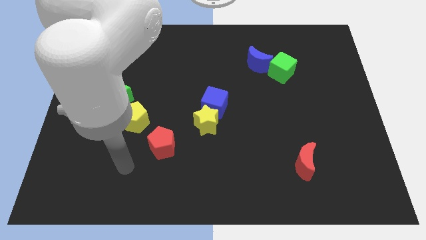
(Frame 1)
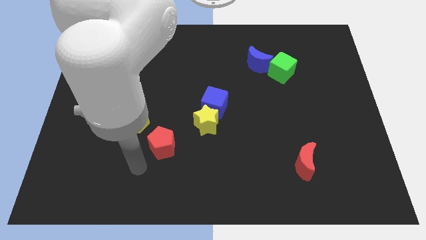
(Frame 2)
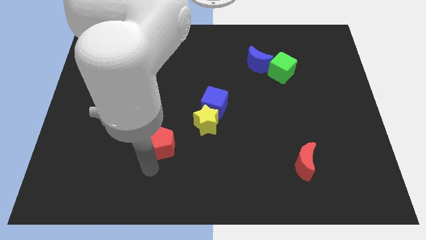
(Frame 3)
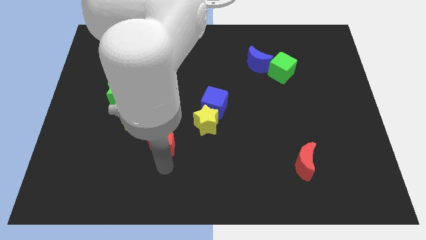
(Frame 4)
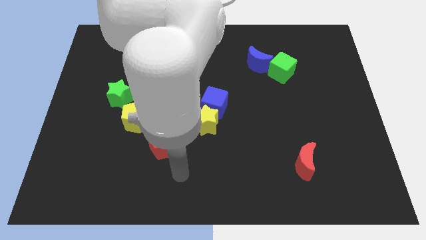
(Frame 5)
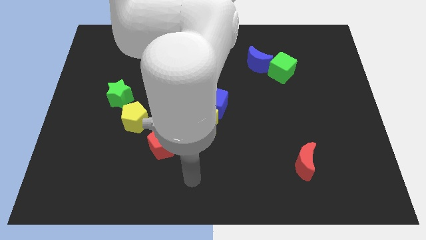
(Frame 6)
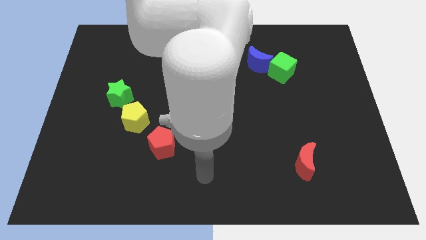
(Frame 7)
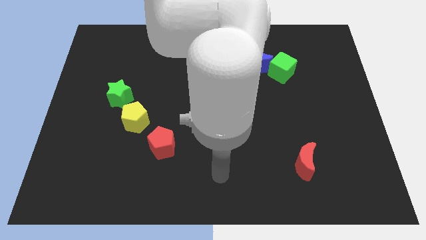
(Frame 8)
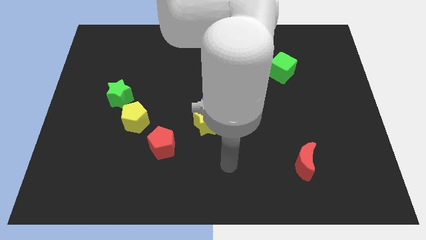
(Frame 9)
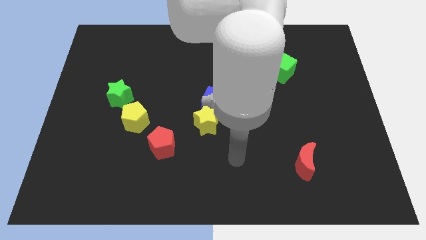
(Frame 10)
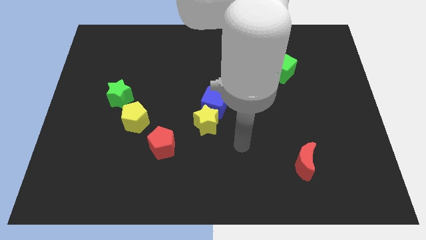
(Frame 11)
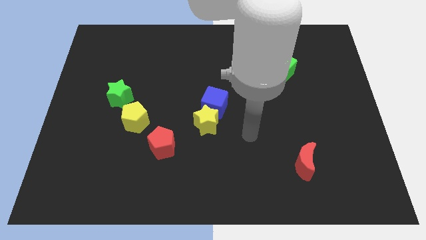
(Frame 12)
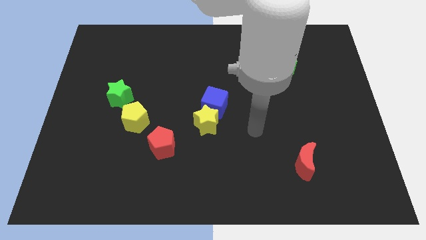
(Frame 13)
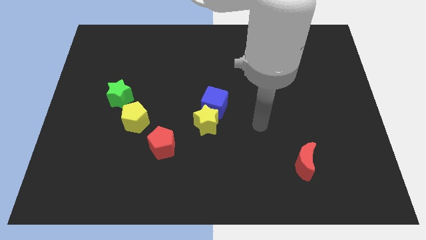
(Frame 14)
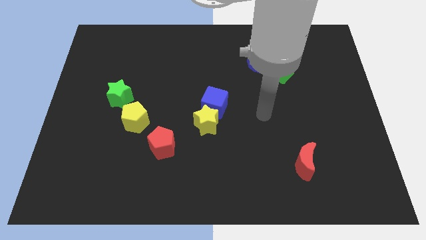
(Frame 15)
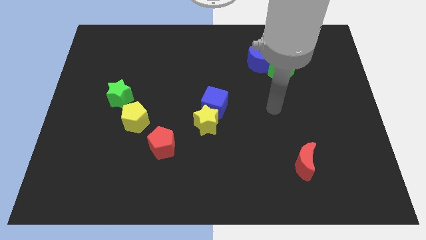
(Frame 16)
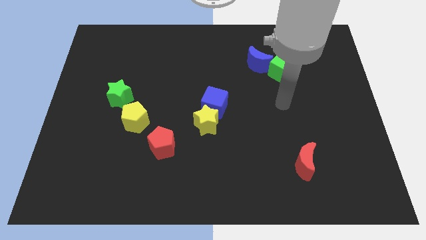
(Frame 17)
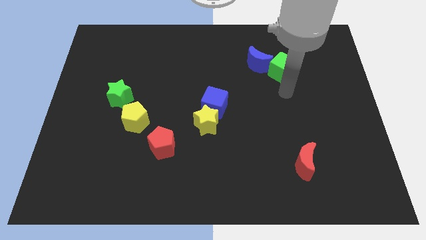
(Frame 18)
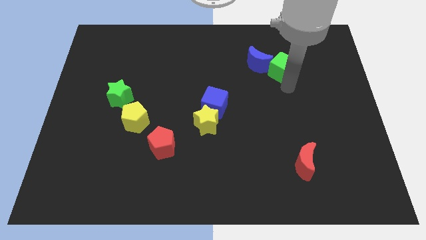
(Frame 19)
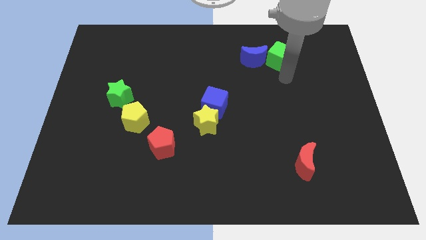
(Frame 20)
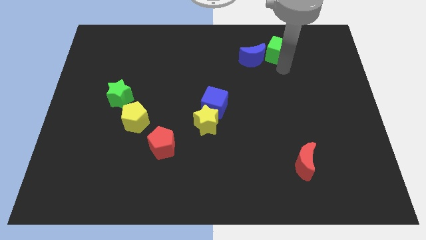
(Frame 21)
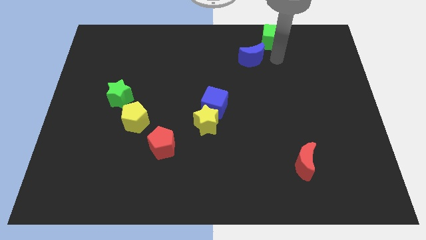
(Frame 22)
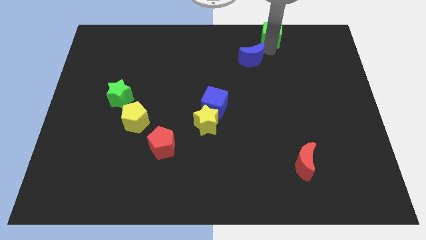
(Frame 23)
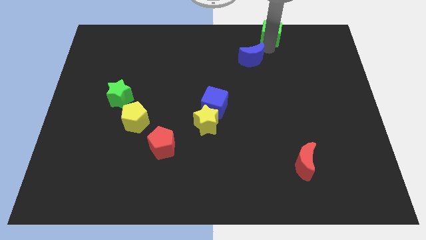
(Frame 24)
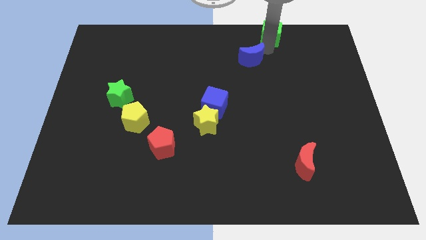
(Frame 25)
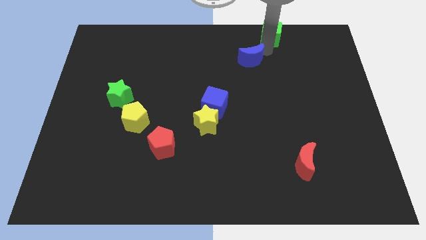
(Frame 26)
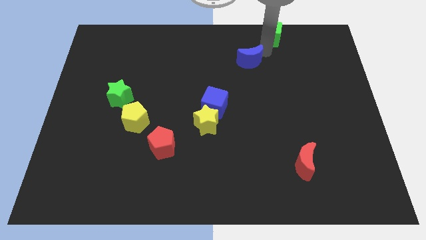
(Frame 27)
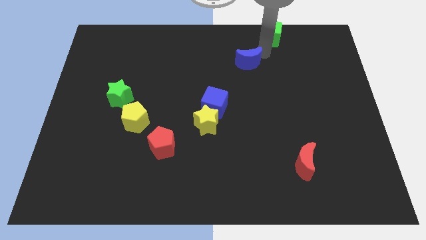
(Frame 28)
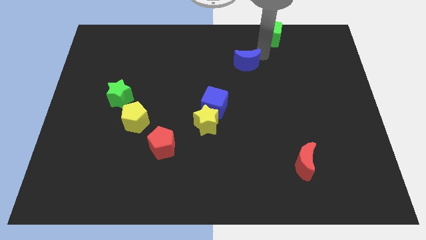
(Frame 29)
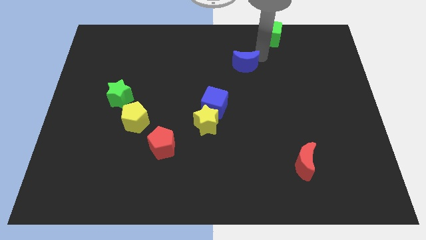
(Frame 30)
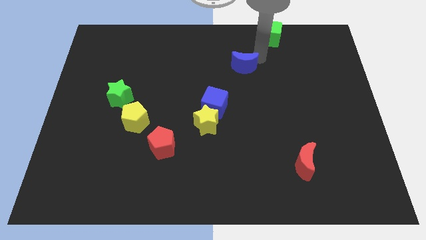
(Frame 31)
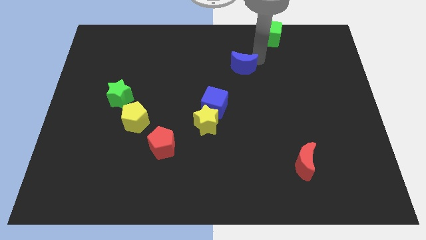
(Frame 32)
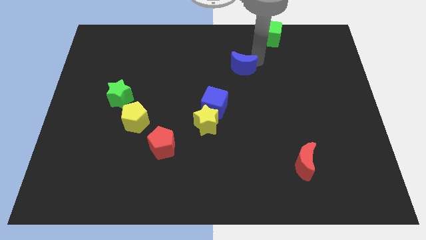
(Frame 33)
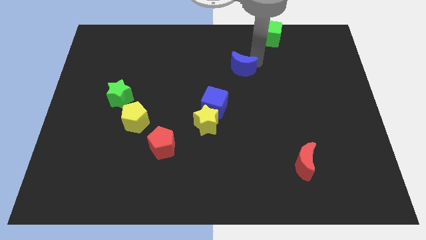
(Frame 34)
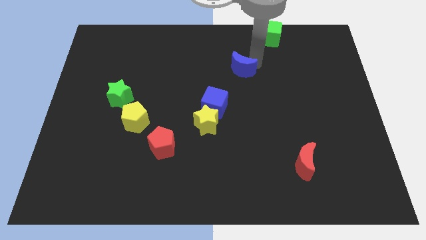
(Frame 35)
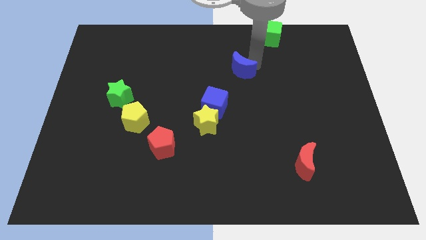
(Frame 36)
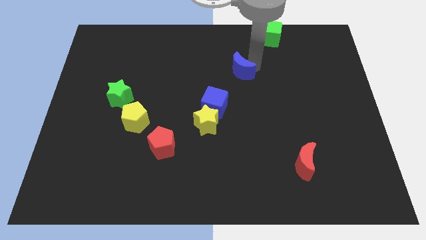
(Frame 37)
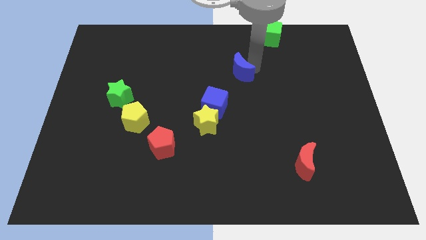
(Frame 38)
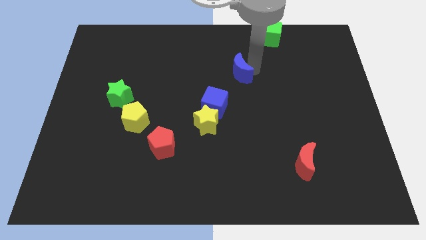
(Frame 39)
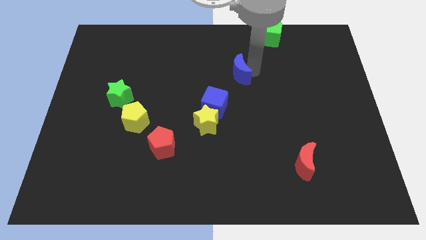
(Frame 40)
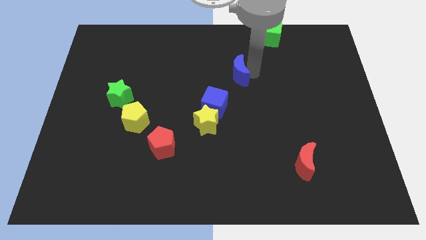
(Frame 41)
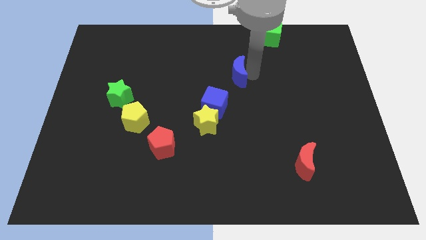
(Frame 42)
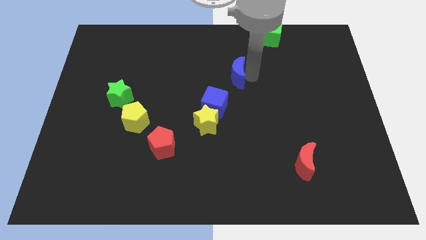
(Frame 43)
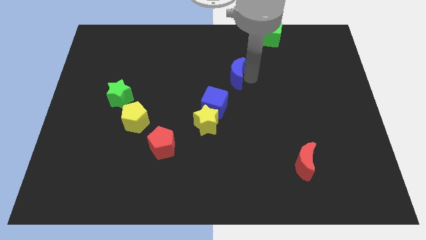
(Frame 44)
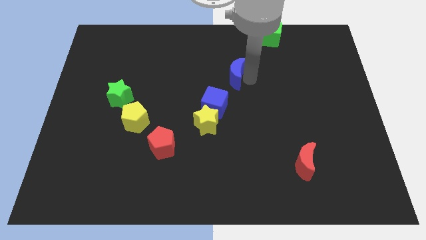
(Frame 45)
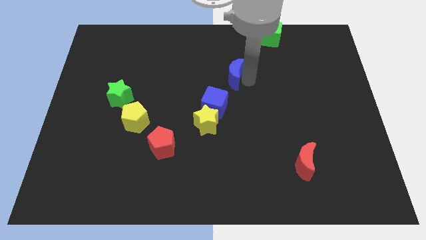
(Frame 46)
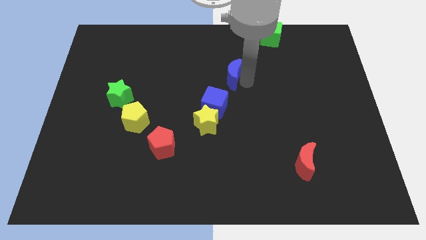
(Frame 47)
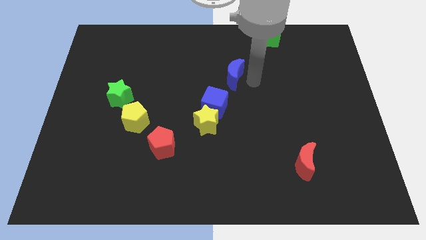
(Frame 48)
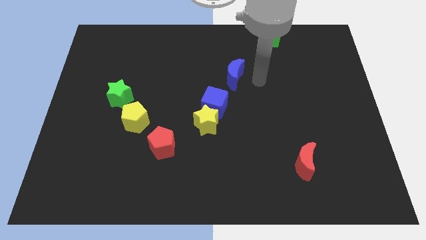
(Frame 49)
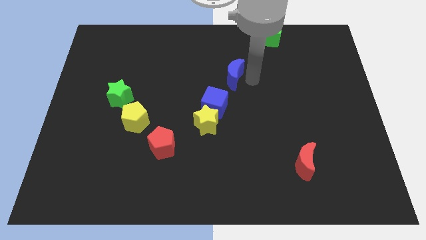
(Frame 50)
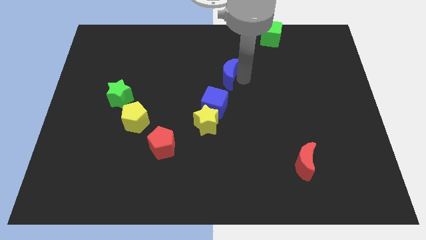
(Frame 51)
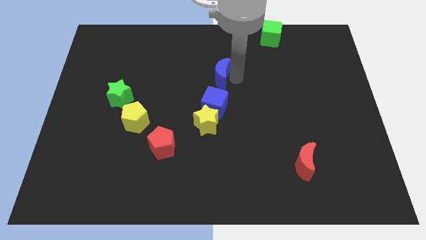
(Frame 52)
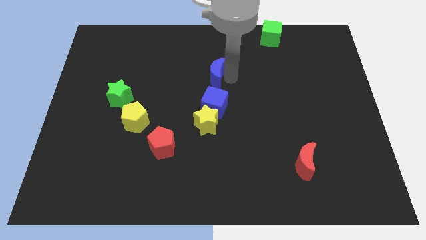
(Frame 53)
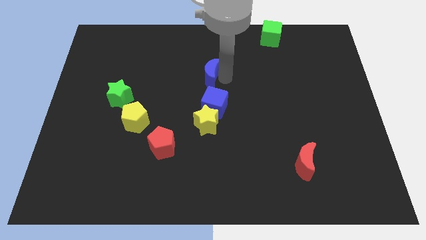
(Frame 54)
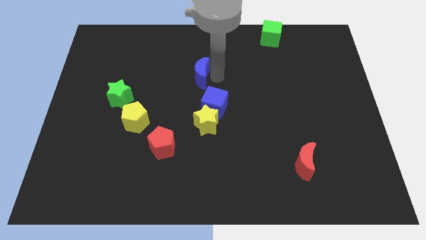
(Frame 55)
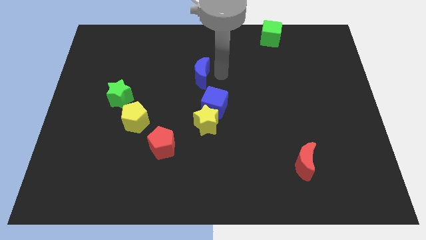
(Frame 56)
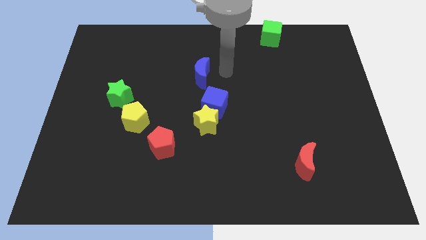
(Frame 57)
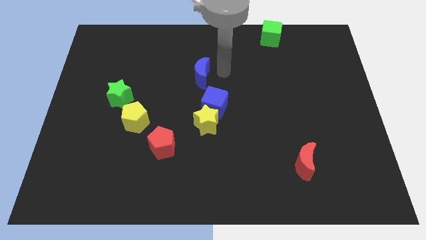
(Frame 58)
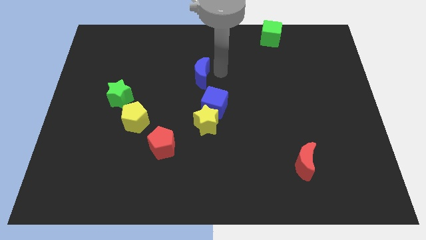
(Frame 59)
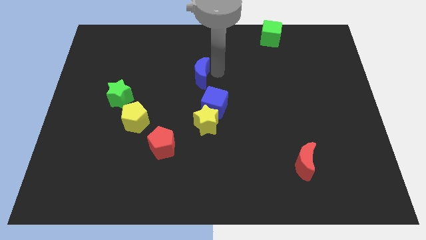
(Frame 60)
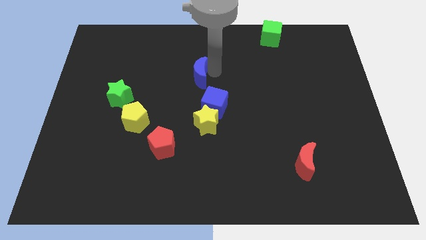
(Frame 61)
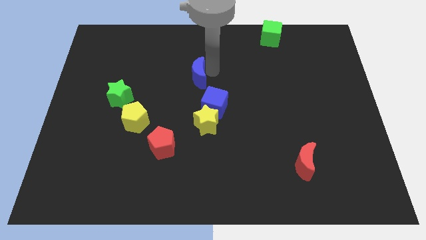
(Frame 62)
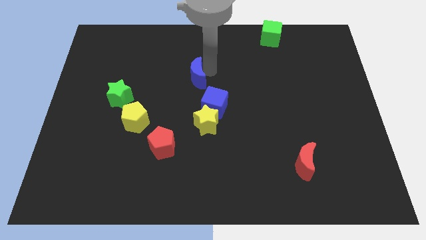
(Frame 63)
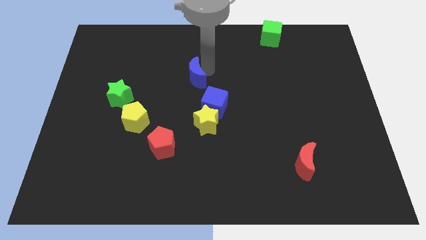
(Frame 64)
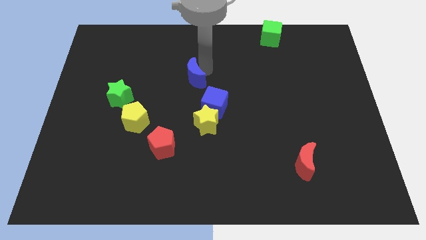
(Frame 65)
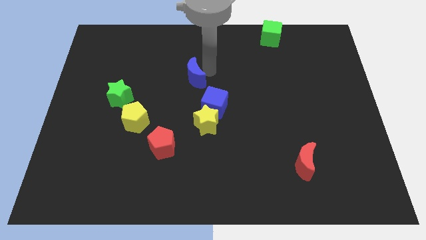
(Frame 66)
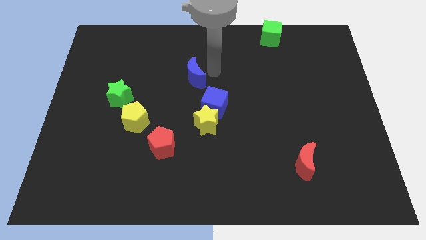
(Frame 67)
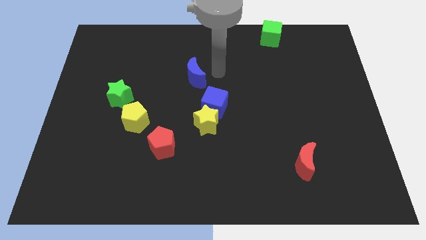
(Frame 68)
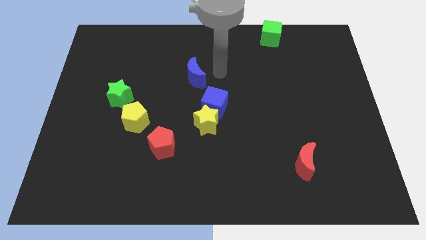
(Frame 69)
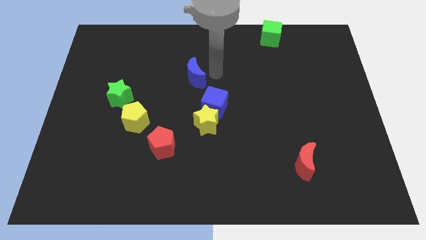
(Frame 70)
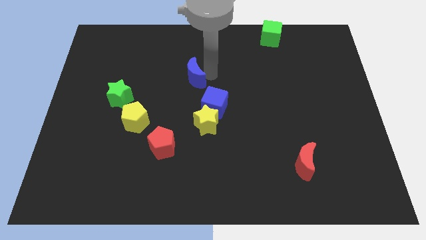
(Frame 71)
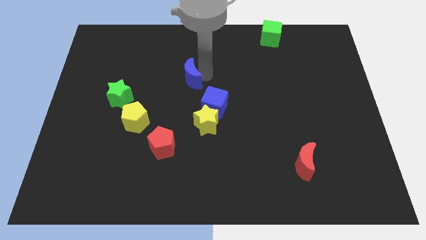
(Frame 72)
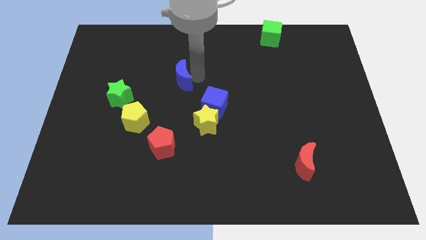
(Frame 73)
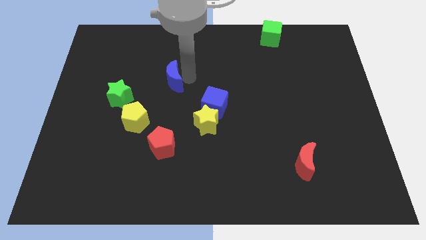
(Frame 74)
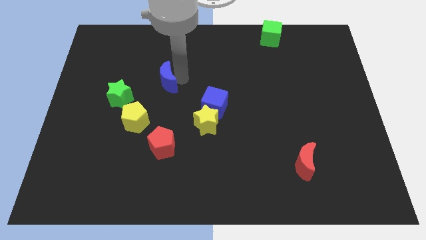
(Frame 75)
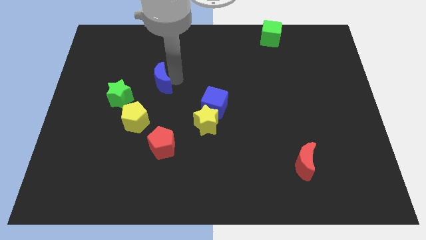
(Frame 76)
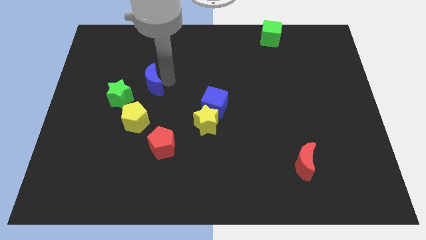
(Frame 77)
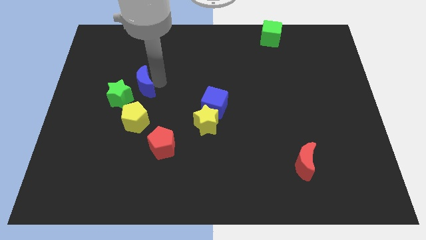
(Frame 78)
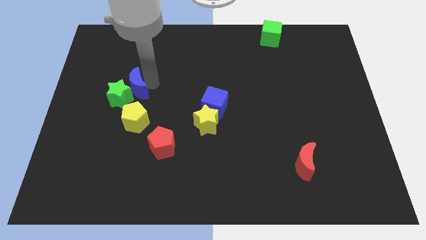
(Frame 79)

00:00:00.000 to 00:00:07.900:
put the blue moon towards the green star
